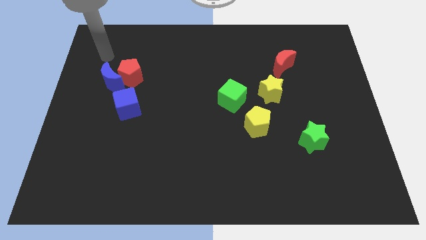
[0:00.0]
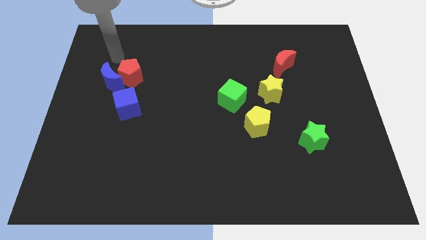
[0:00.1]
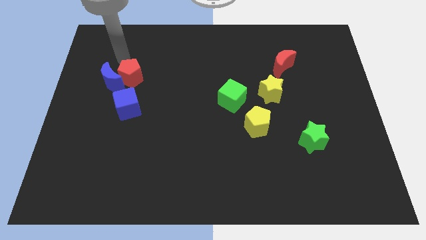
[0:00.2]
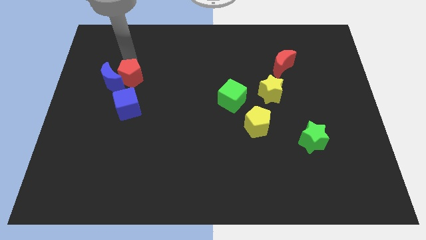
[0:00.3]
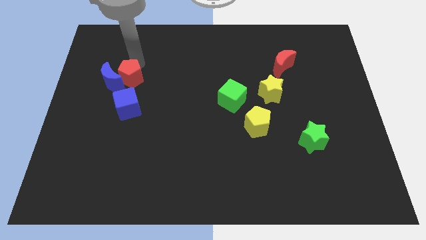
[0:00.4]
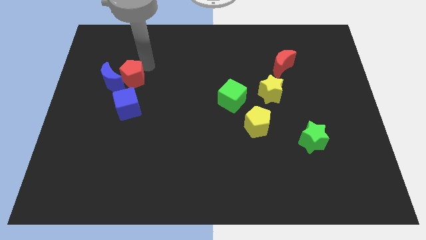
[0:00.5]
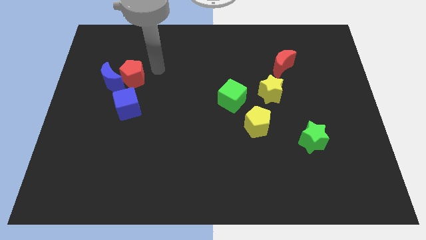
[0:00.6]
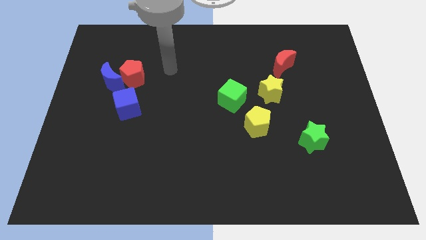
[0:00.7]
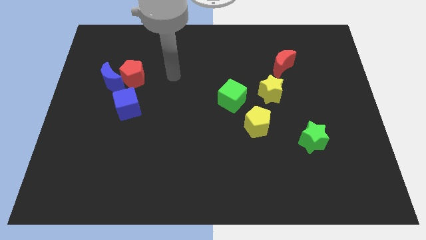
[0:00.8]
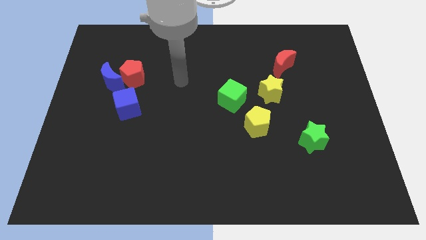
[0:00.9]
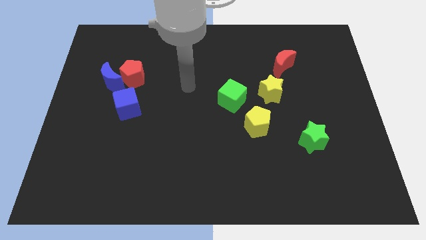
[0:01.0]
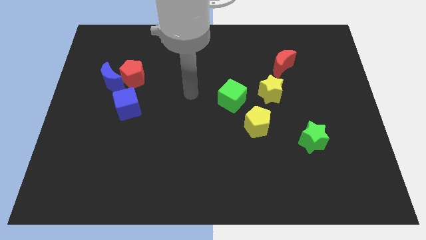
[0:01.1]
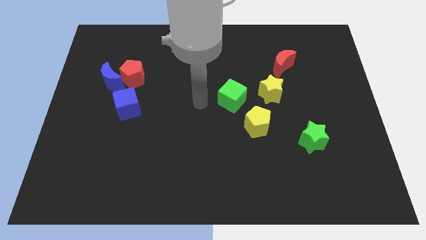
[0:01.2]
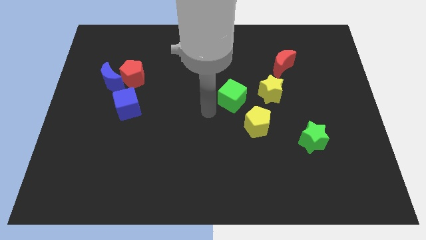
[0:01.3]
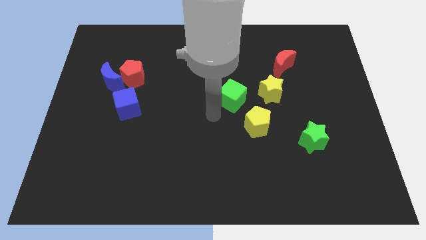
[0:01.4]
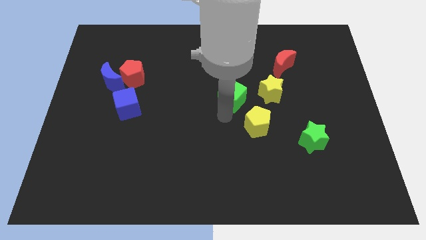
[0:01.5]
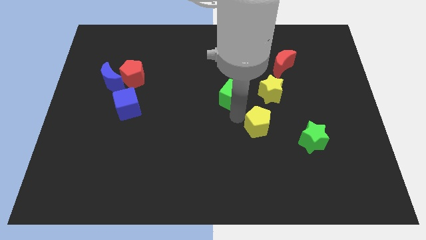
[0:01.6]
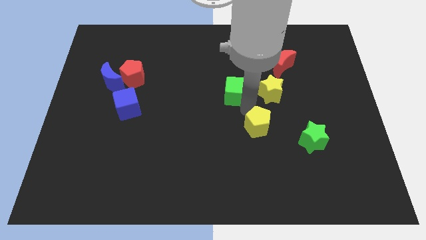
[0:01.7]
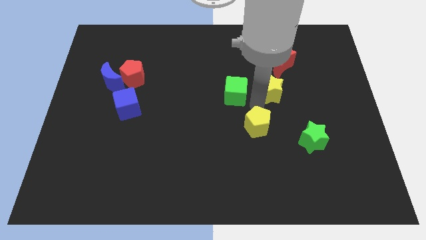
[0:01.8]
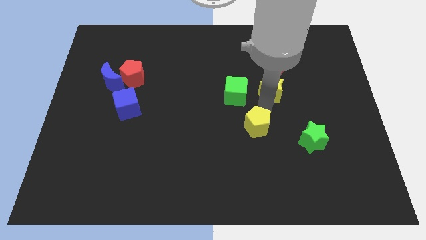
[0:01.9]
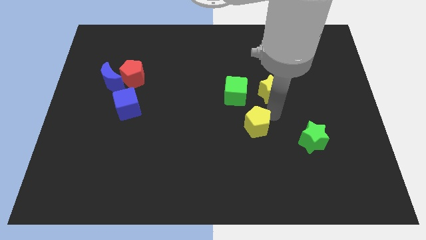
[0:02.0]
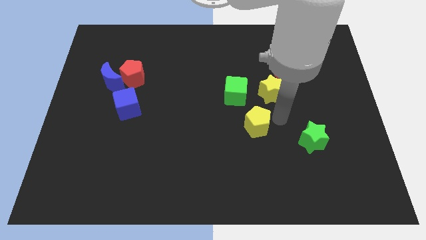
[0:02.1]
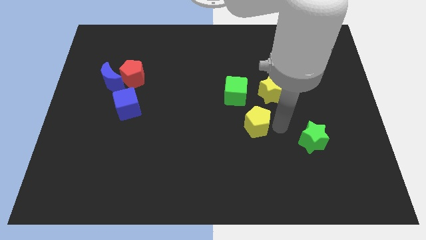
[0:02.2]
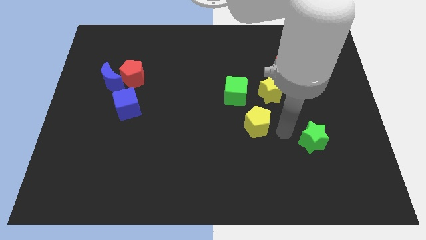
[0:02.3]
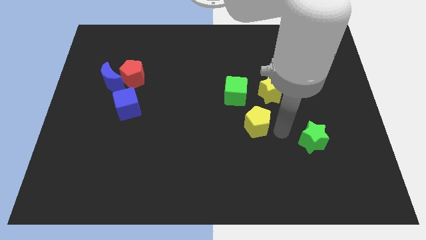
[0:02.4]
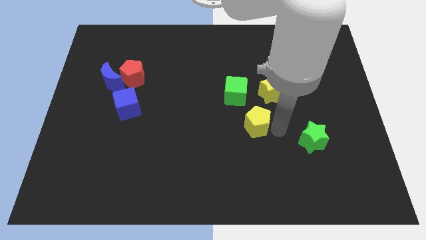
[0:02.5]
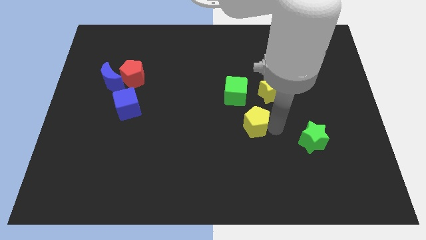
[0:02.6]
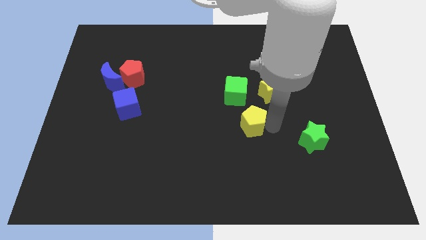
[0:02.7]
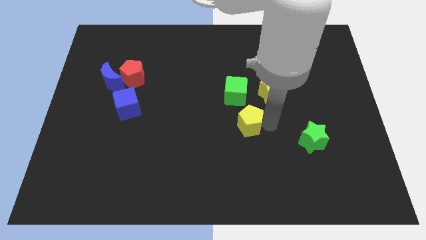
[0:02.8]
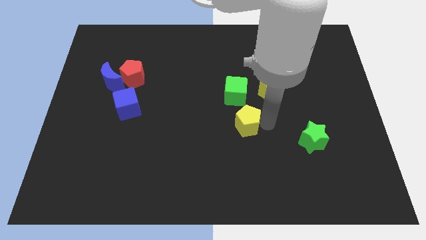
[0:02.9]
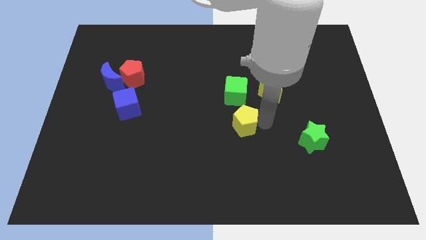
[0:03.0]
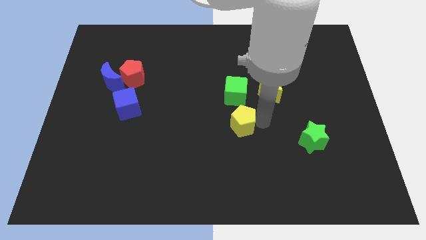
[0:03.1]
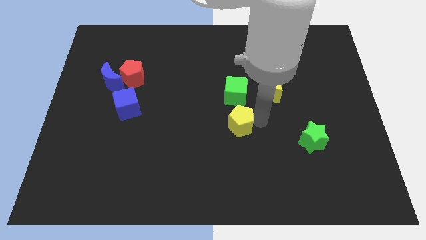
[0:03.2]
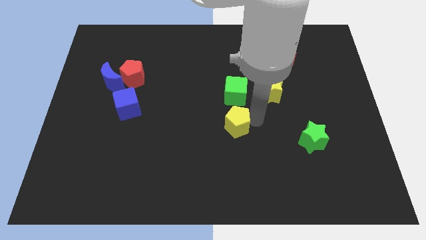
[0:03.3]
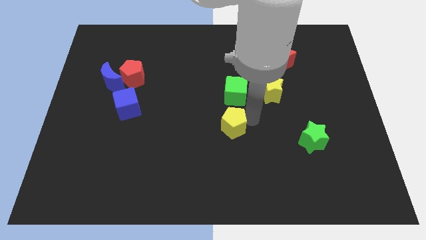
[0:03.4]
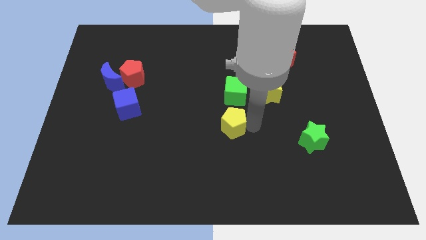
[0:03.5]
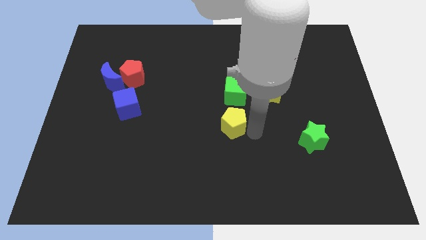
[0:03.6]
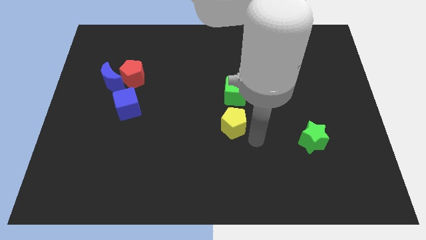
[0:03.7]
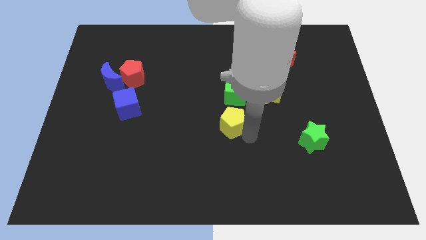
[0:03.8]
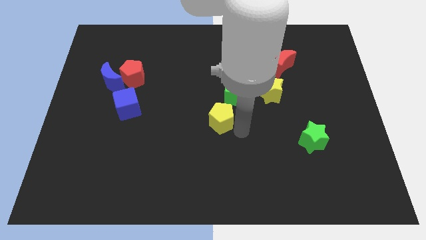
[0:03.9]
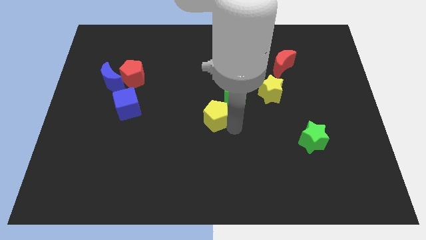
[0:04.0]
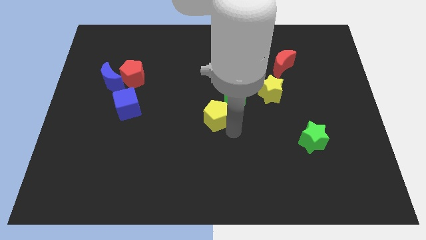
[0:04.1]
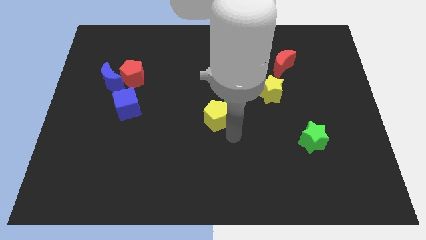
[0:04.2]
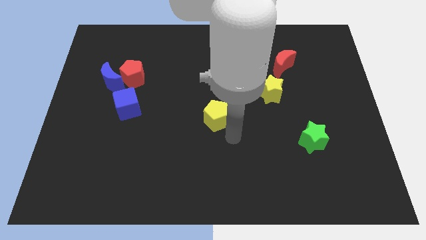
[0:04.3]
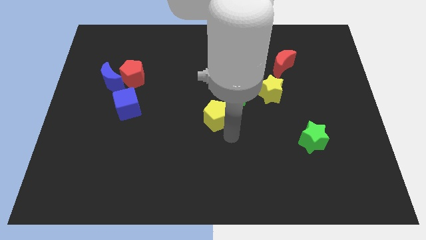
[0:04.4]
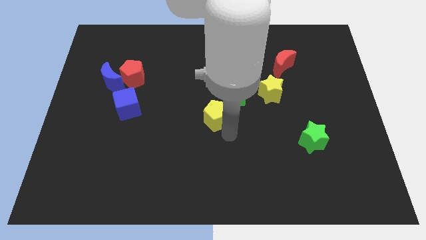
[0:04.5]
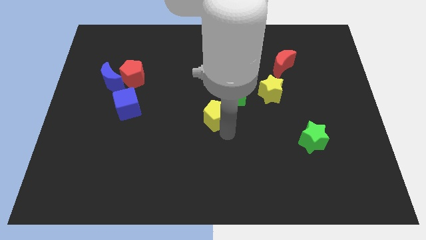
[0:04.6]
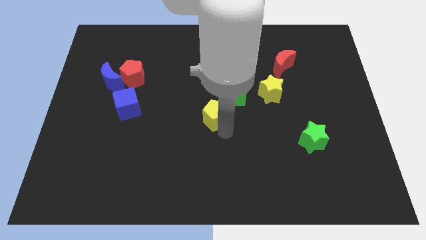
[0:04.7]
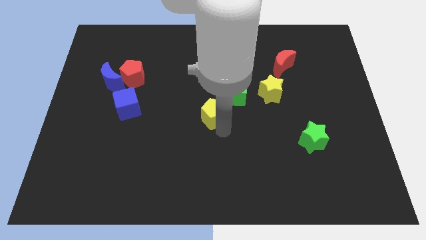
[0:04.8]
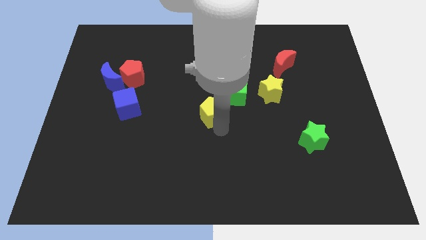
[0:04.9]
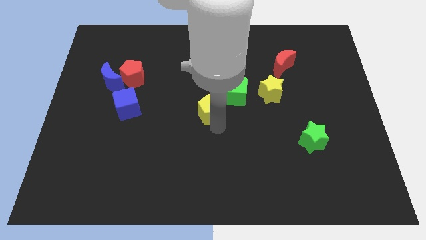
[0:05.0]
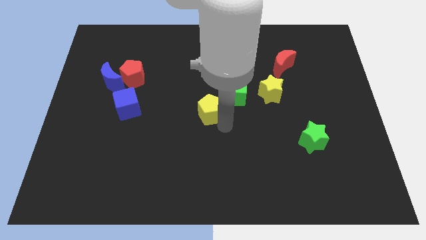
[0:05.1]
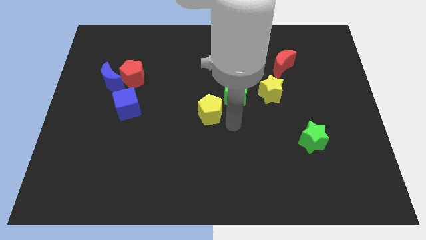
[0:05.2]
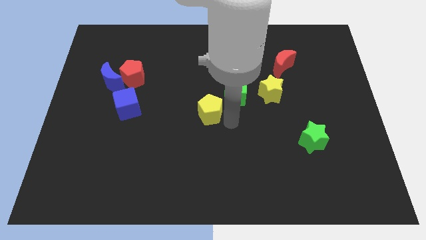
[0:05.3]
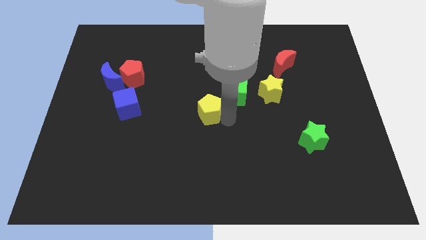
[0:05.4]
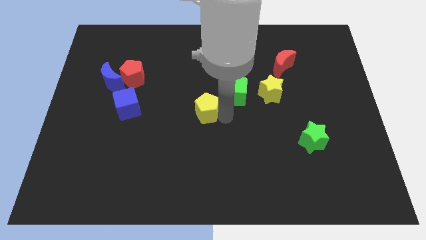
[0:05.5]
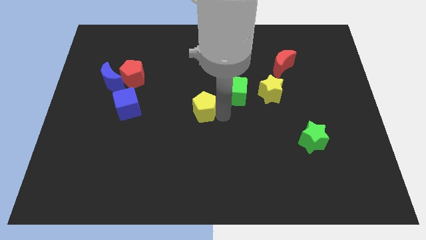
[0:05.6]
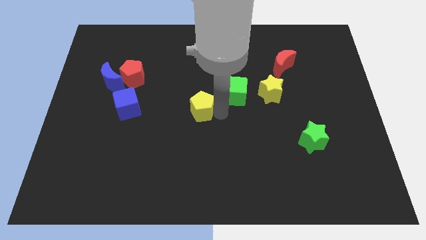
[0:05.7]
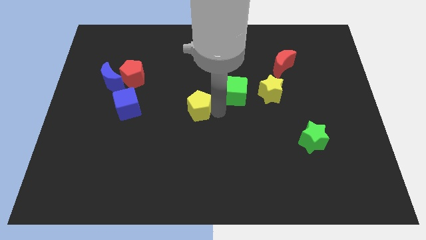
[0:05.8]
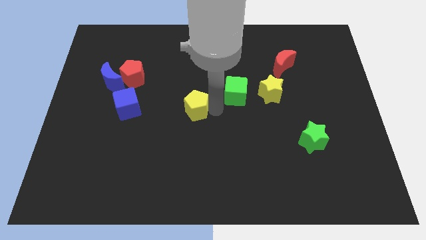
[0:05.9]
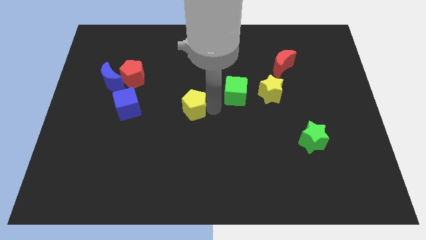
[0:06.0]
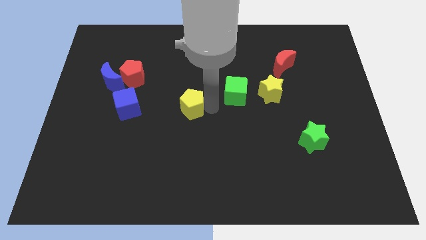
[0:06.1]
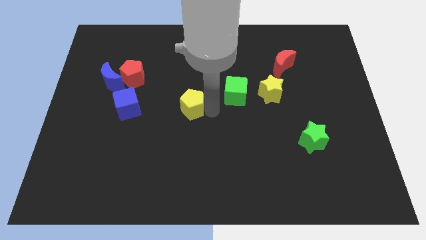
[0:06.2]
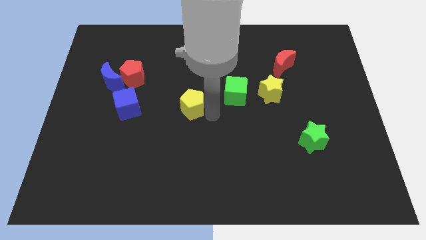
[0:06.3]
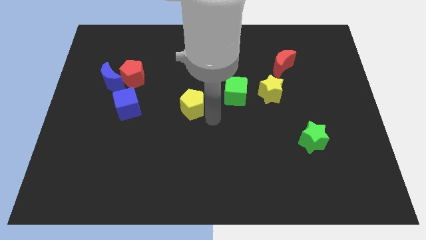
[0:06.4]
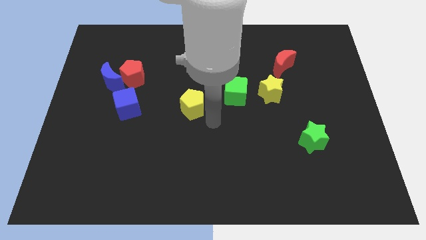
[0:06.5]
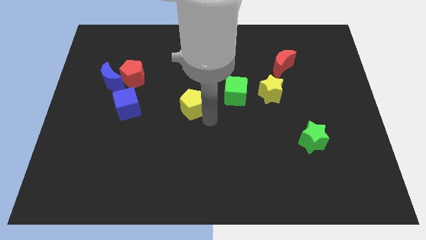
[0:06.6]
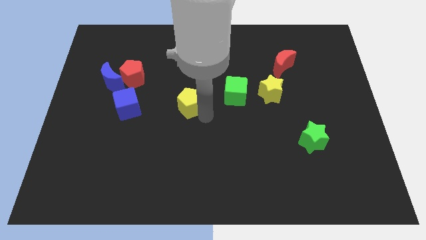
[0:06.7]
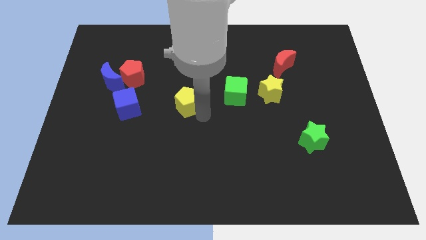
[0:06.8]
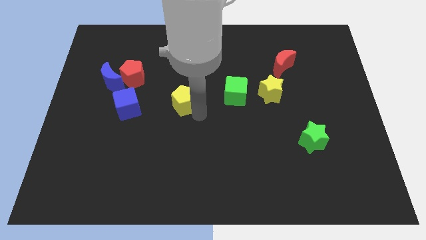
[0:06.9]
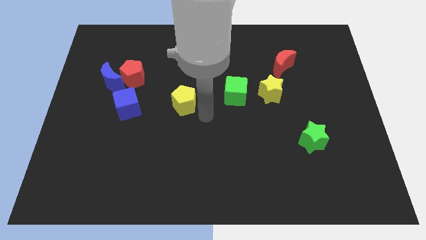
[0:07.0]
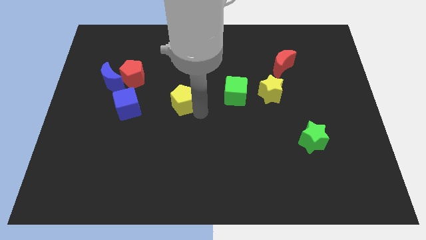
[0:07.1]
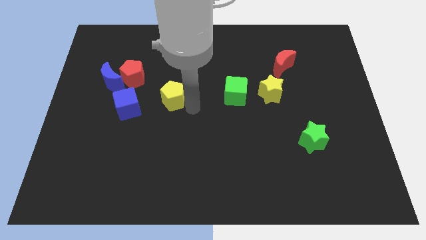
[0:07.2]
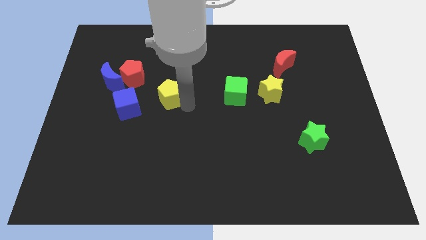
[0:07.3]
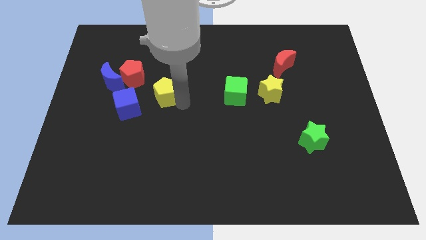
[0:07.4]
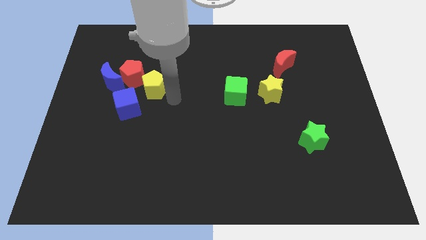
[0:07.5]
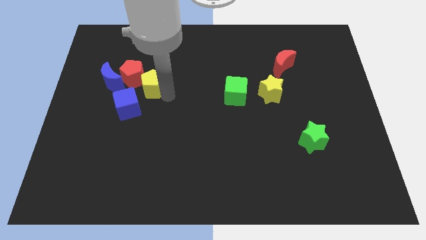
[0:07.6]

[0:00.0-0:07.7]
put the yellow pentagon to the red pentagon
